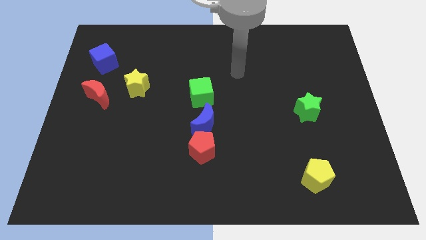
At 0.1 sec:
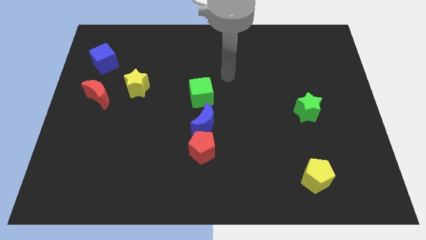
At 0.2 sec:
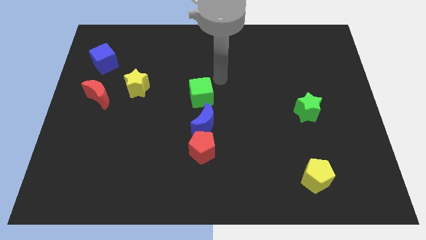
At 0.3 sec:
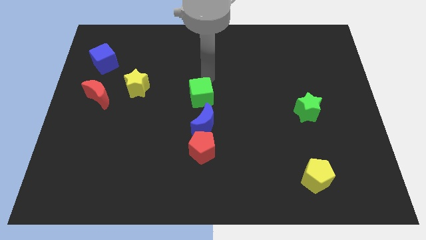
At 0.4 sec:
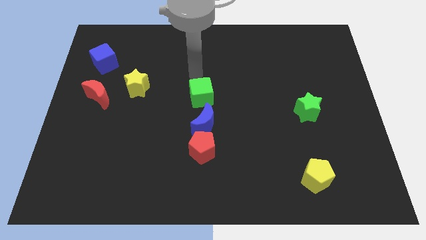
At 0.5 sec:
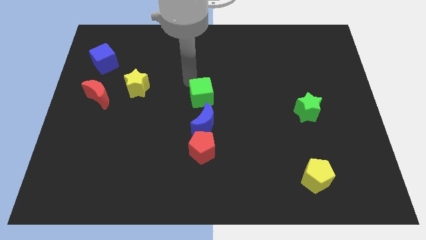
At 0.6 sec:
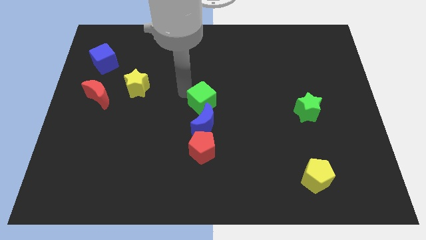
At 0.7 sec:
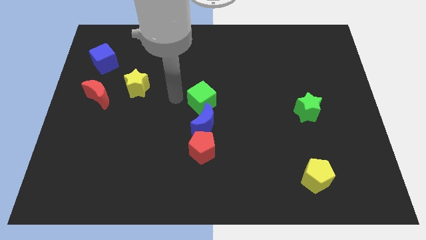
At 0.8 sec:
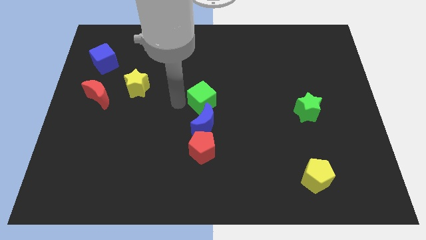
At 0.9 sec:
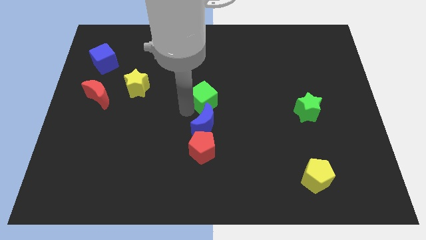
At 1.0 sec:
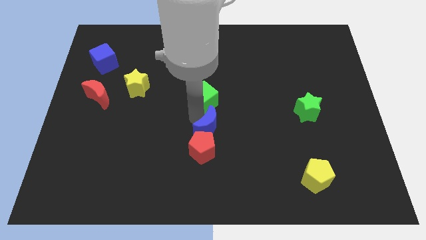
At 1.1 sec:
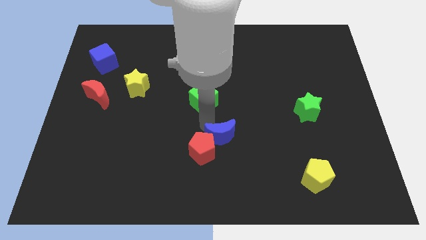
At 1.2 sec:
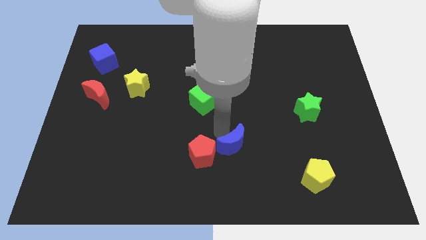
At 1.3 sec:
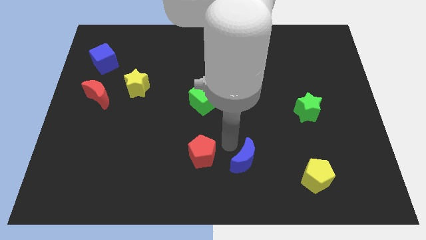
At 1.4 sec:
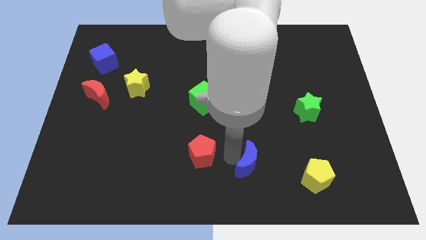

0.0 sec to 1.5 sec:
pull the red pentagon apart from the blue moon

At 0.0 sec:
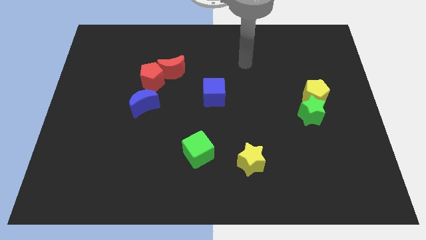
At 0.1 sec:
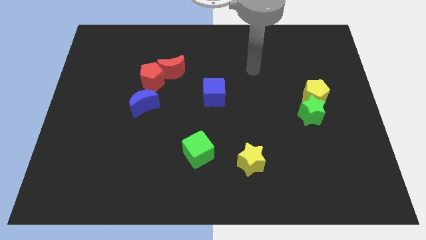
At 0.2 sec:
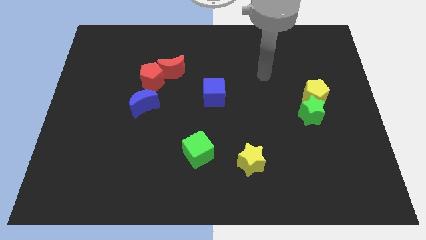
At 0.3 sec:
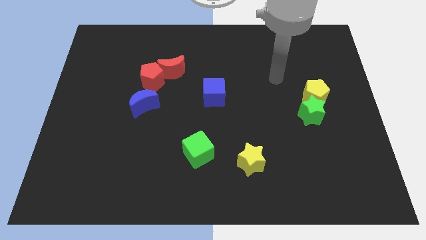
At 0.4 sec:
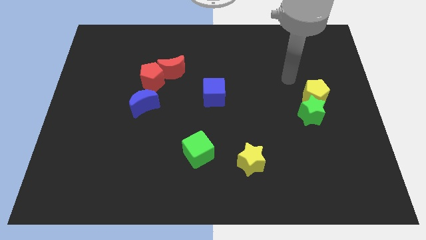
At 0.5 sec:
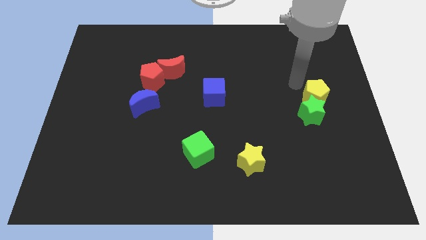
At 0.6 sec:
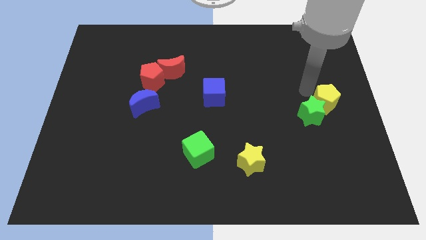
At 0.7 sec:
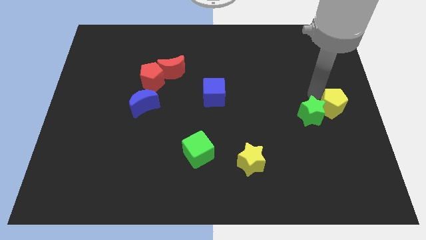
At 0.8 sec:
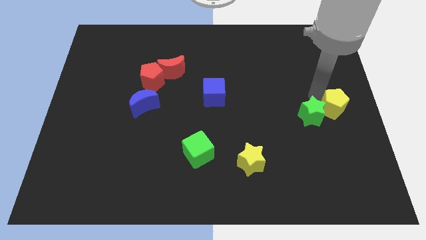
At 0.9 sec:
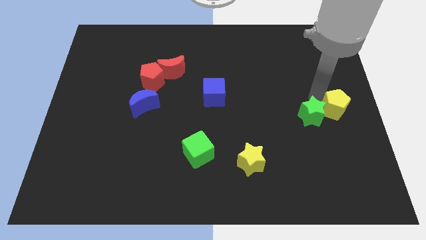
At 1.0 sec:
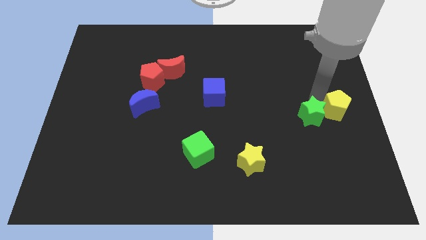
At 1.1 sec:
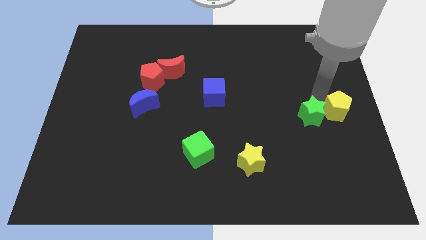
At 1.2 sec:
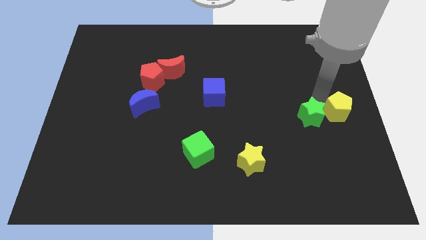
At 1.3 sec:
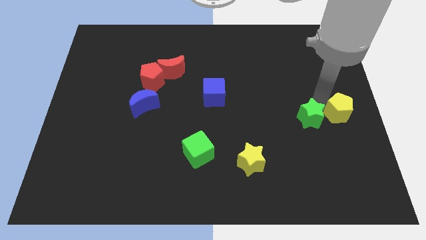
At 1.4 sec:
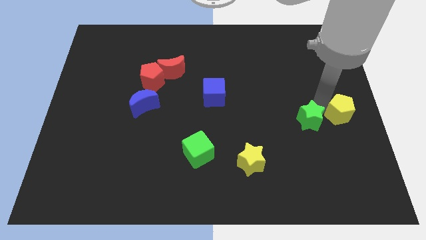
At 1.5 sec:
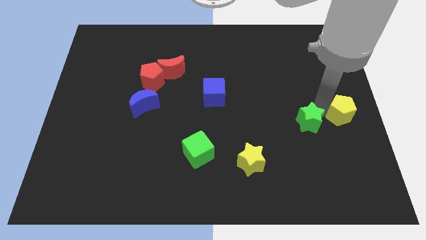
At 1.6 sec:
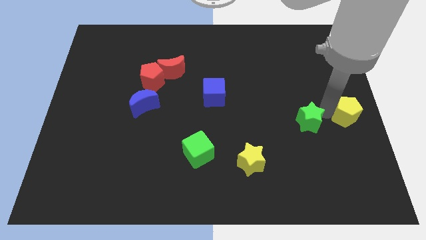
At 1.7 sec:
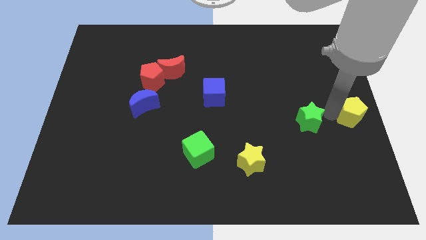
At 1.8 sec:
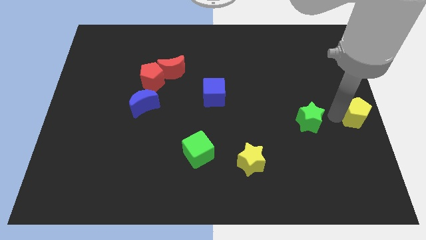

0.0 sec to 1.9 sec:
pull the green star apart from the yellow pentagon

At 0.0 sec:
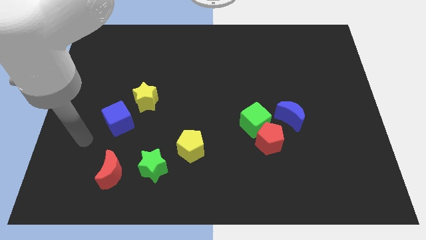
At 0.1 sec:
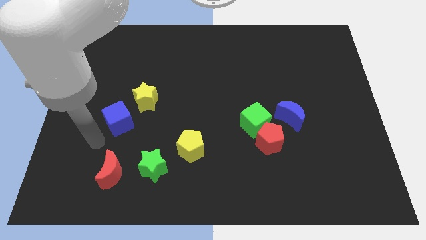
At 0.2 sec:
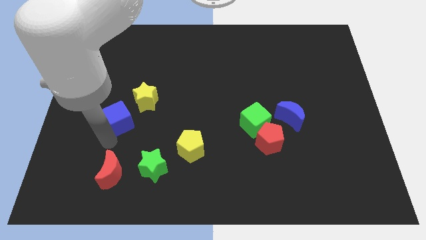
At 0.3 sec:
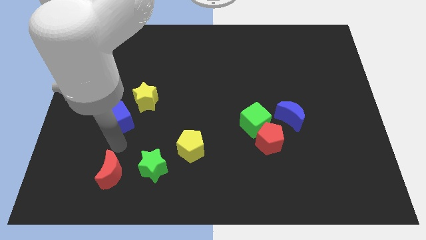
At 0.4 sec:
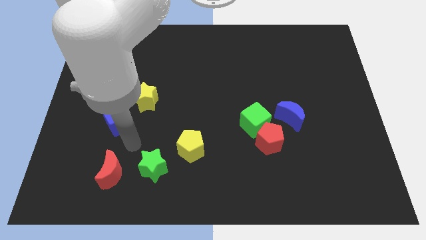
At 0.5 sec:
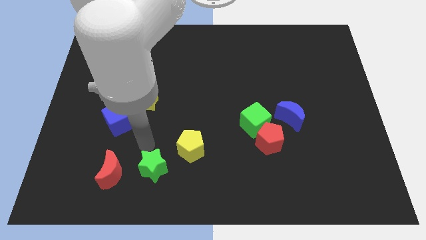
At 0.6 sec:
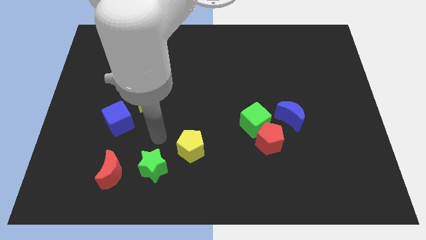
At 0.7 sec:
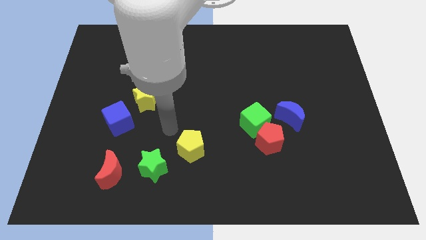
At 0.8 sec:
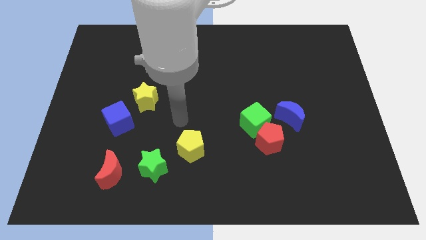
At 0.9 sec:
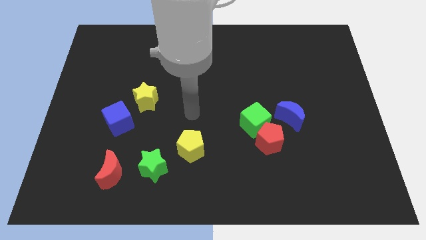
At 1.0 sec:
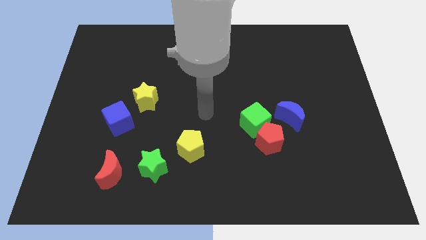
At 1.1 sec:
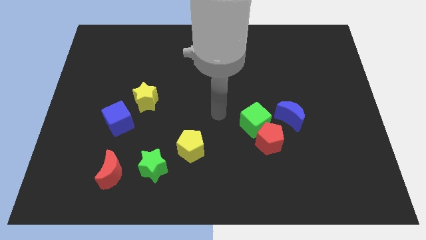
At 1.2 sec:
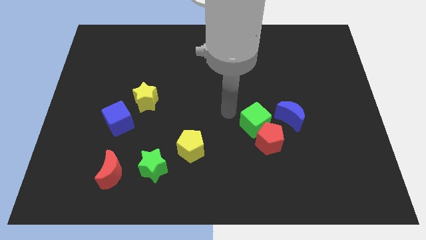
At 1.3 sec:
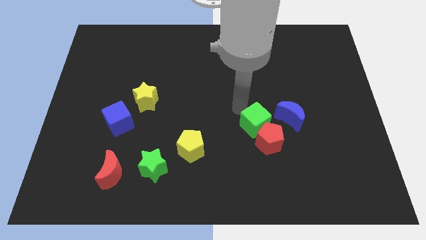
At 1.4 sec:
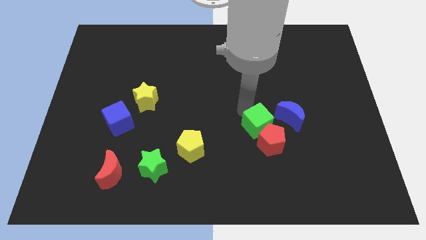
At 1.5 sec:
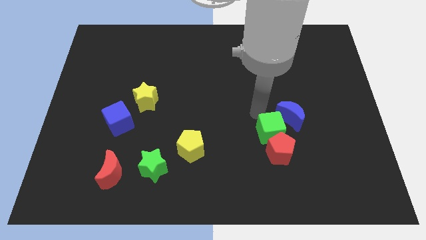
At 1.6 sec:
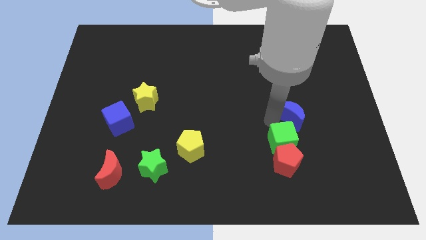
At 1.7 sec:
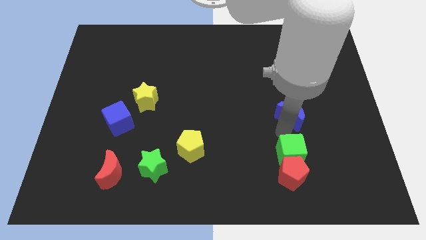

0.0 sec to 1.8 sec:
move the red pentagon away from the green cube and blue moon

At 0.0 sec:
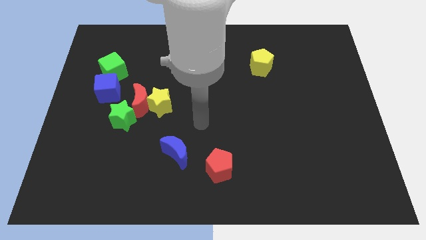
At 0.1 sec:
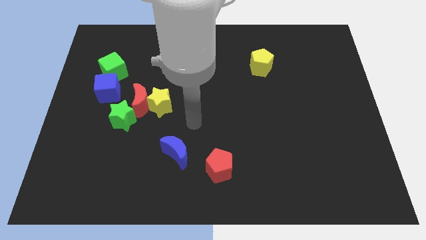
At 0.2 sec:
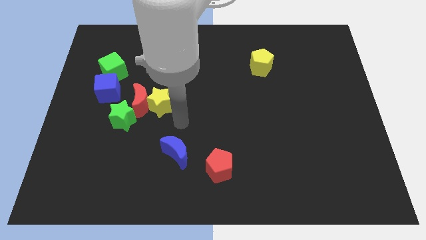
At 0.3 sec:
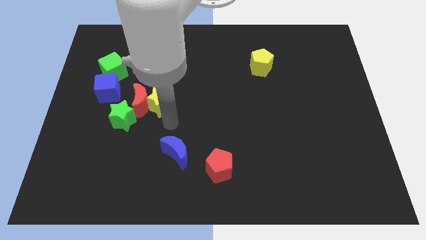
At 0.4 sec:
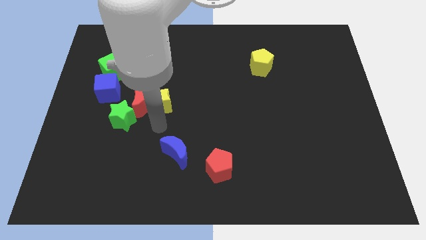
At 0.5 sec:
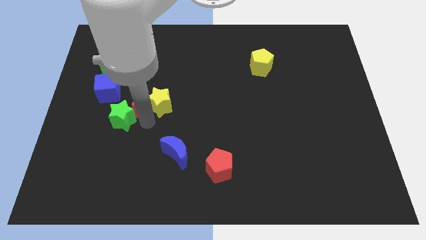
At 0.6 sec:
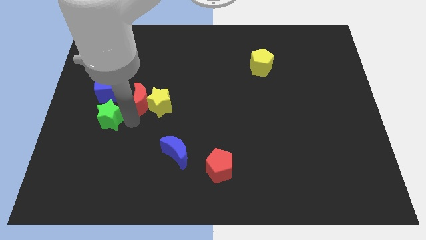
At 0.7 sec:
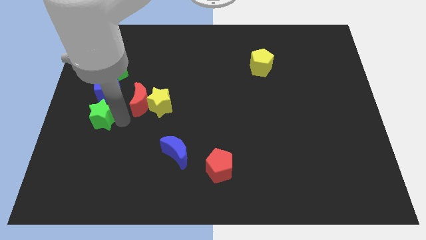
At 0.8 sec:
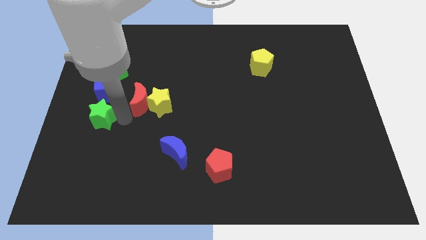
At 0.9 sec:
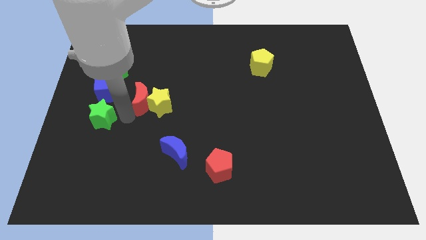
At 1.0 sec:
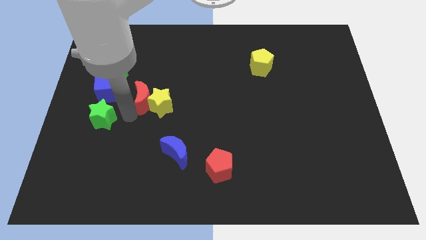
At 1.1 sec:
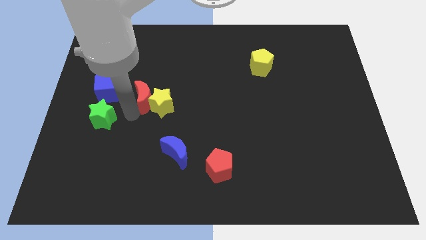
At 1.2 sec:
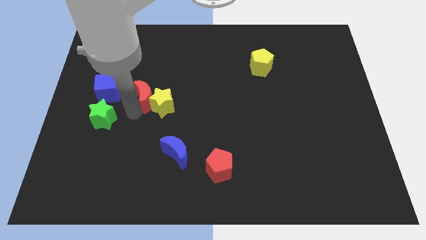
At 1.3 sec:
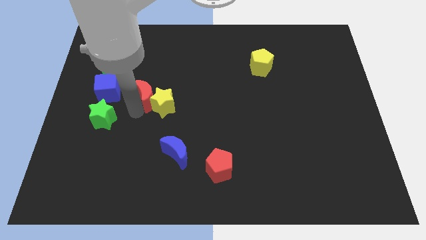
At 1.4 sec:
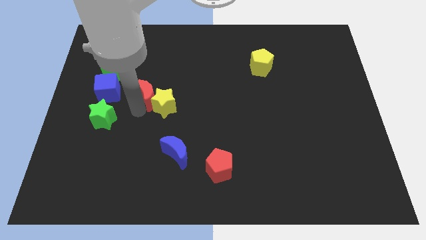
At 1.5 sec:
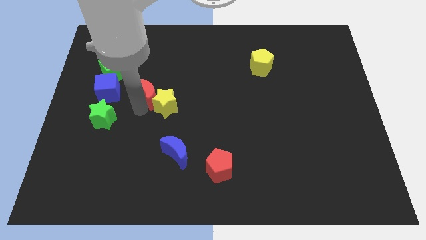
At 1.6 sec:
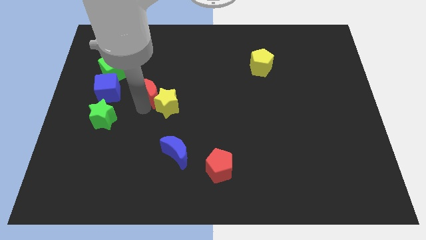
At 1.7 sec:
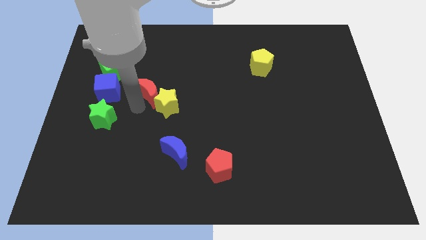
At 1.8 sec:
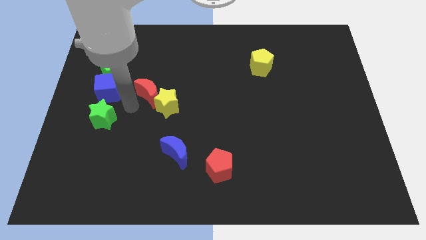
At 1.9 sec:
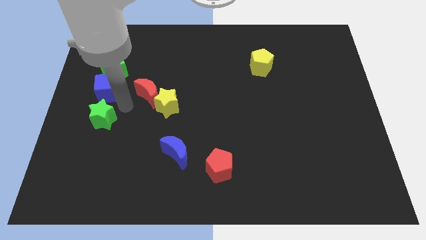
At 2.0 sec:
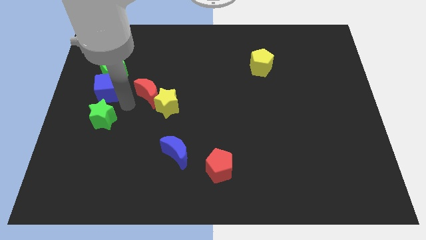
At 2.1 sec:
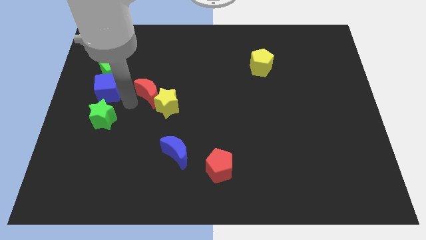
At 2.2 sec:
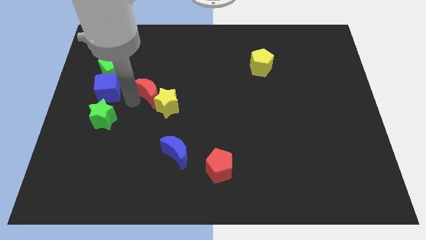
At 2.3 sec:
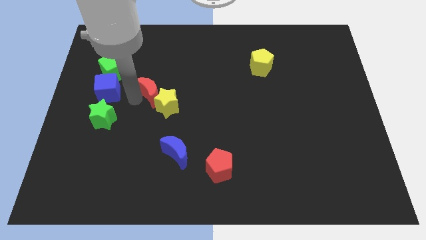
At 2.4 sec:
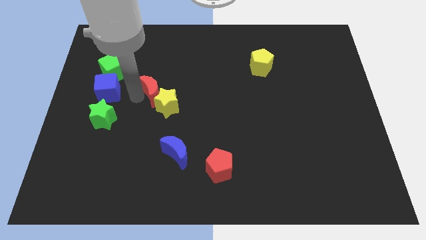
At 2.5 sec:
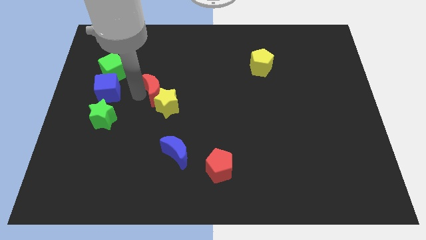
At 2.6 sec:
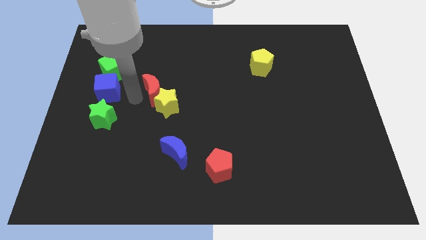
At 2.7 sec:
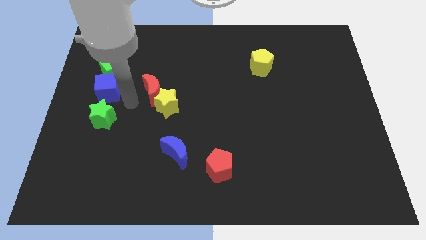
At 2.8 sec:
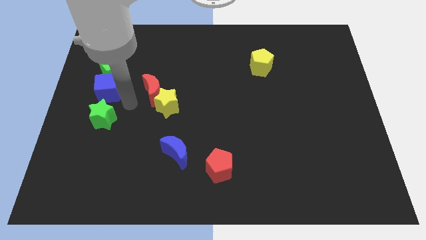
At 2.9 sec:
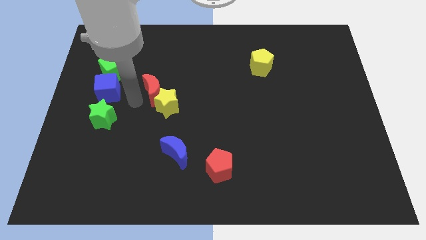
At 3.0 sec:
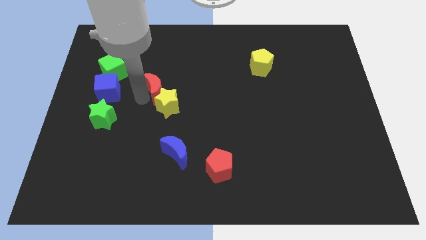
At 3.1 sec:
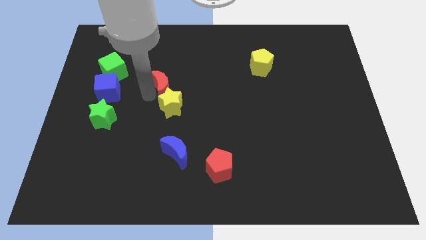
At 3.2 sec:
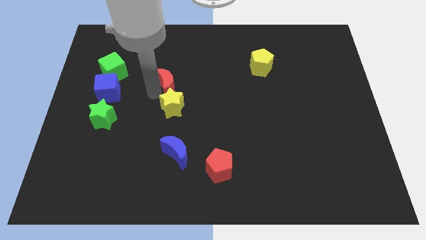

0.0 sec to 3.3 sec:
separate the red moon from the group

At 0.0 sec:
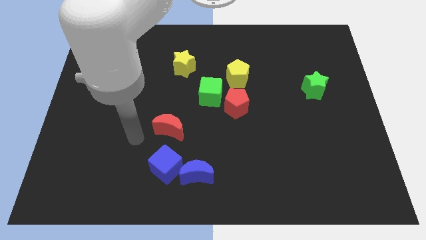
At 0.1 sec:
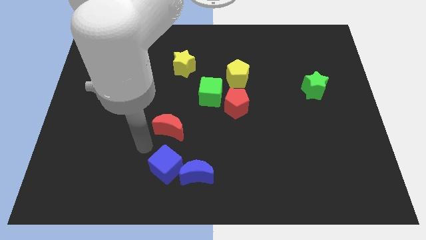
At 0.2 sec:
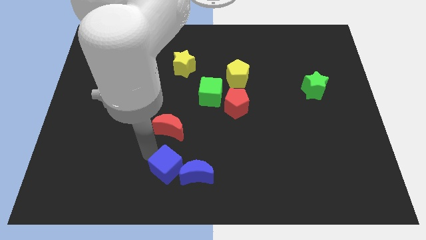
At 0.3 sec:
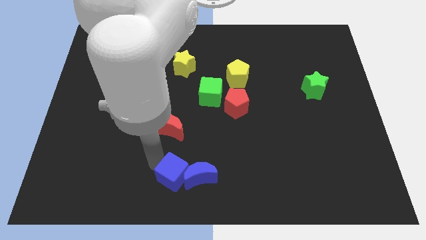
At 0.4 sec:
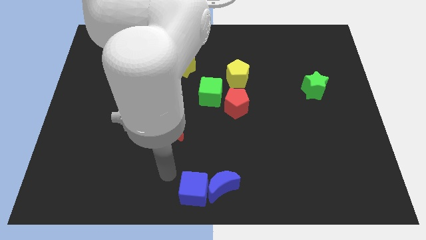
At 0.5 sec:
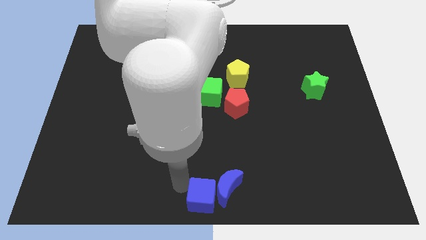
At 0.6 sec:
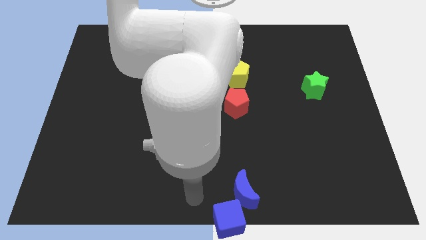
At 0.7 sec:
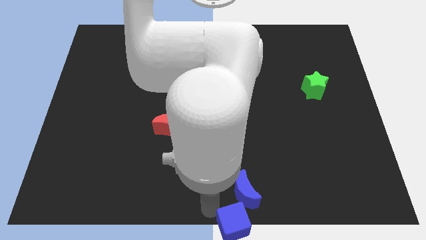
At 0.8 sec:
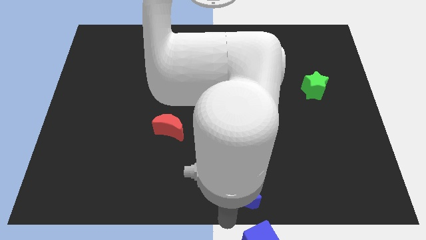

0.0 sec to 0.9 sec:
separate the blue moon from the blue cube
